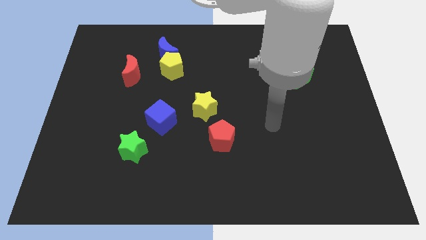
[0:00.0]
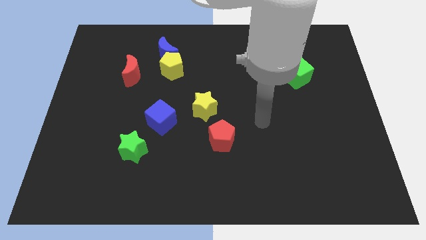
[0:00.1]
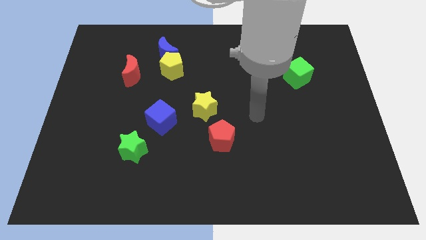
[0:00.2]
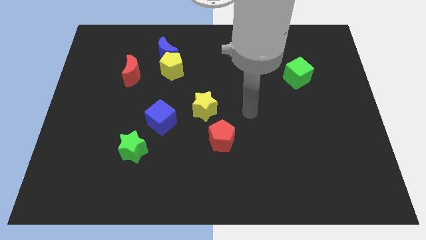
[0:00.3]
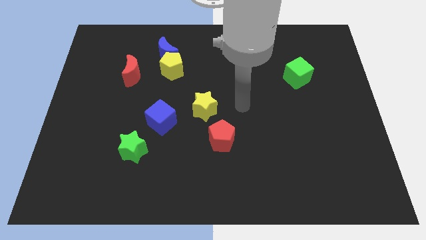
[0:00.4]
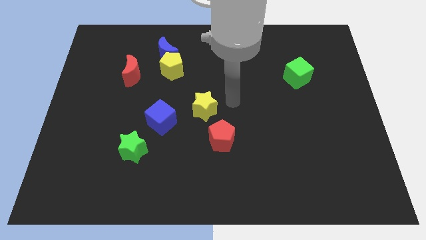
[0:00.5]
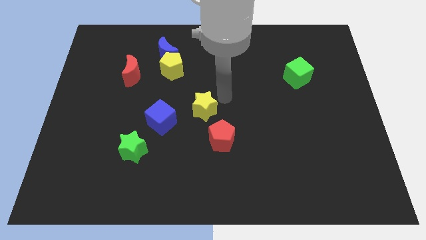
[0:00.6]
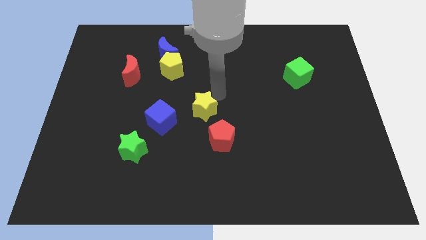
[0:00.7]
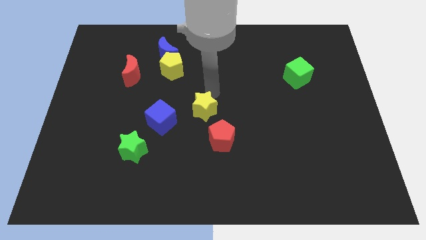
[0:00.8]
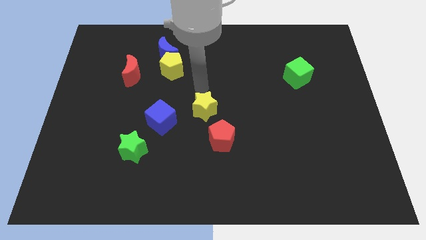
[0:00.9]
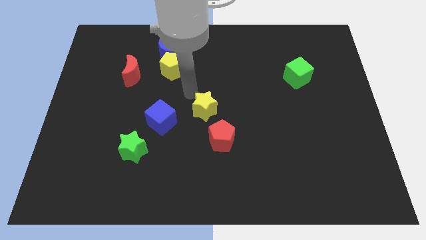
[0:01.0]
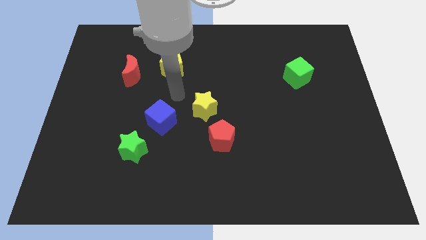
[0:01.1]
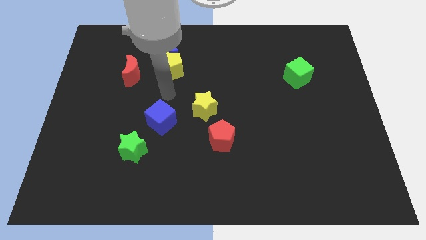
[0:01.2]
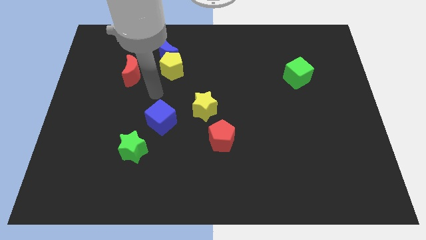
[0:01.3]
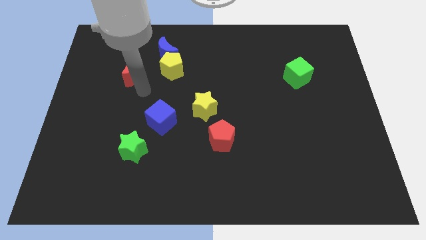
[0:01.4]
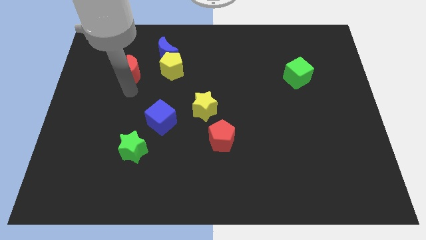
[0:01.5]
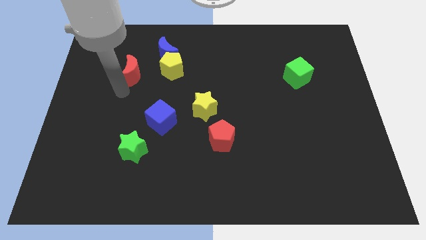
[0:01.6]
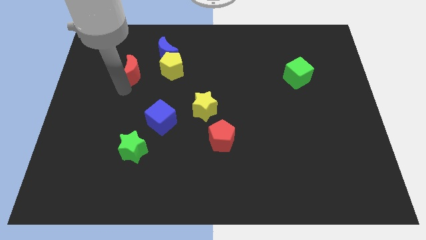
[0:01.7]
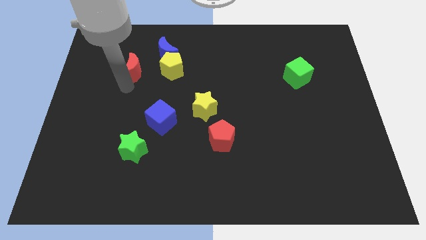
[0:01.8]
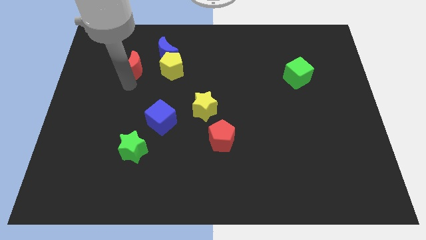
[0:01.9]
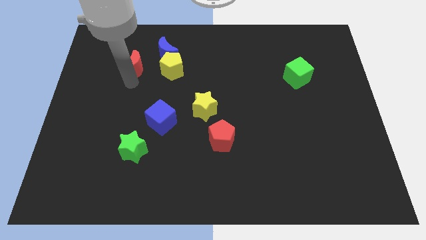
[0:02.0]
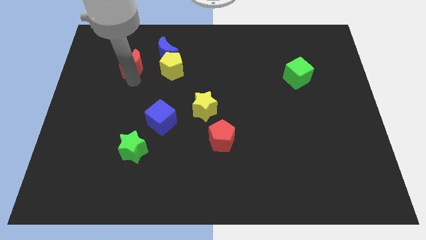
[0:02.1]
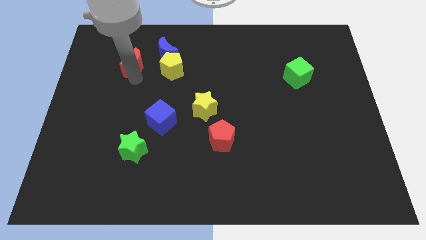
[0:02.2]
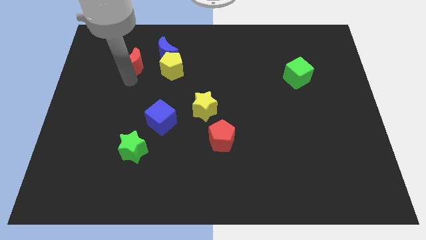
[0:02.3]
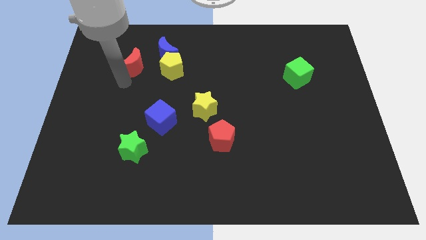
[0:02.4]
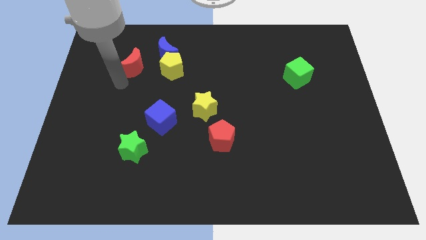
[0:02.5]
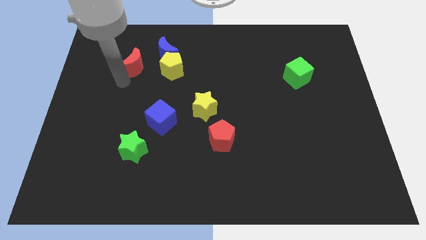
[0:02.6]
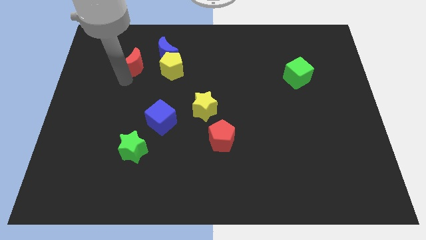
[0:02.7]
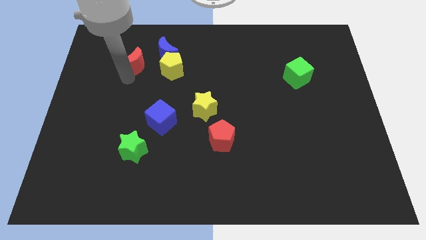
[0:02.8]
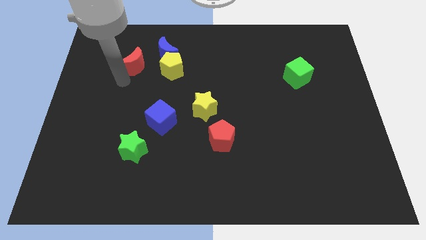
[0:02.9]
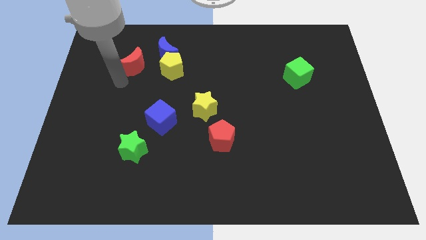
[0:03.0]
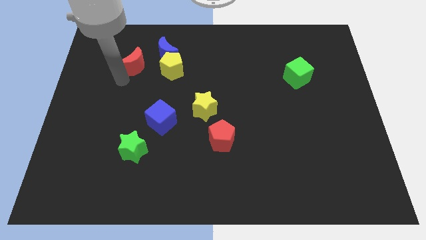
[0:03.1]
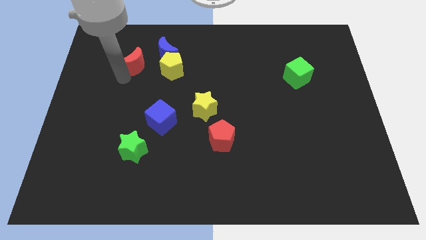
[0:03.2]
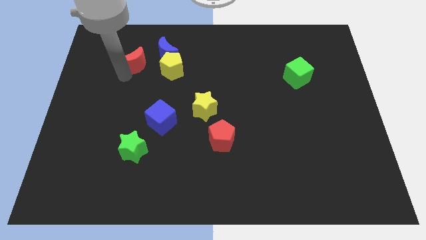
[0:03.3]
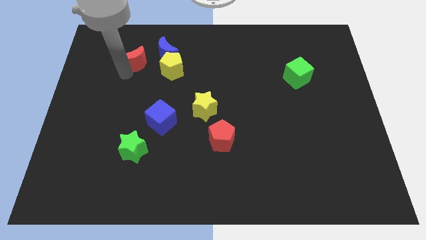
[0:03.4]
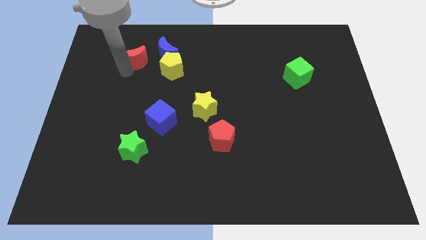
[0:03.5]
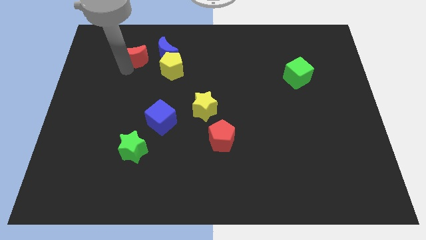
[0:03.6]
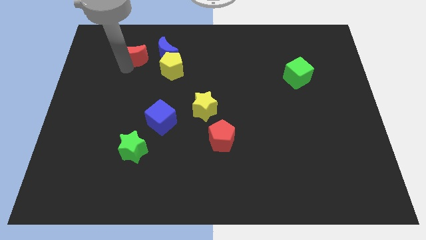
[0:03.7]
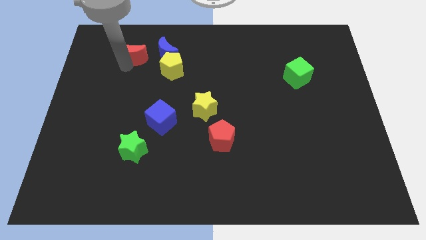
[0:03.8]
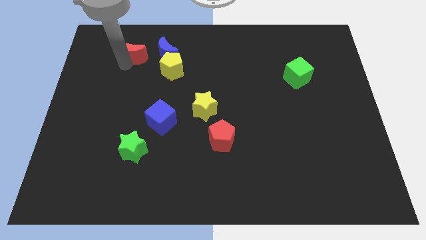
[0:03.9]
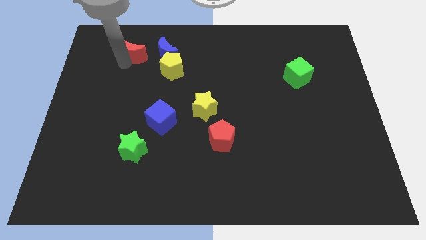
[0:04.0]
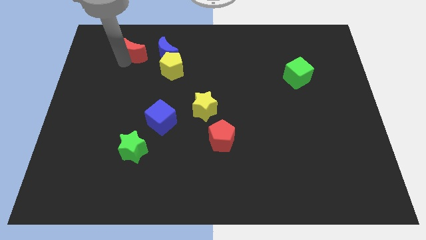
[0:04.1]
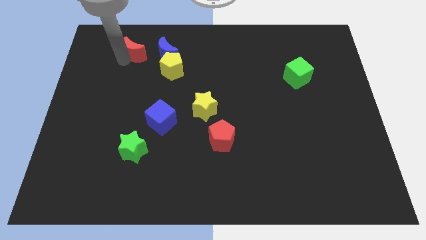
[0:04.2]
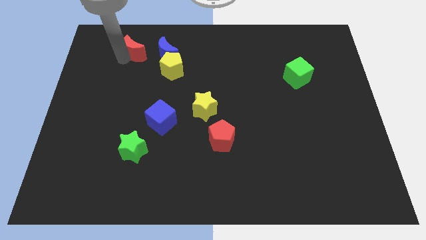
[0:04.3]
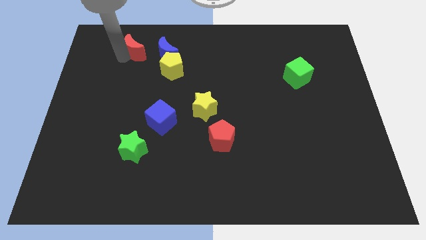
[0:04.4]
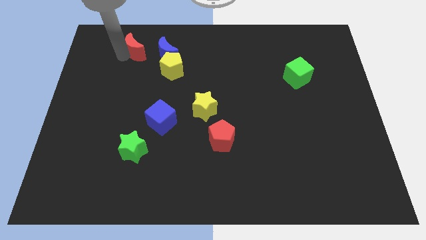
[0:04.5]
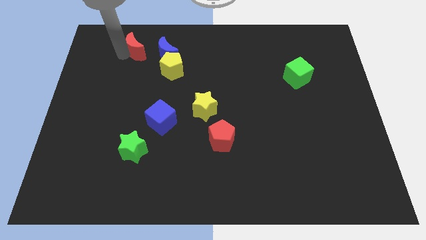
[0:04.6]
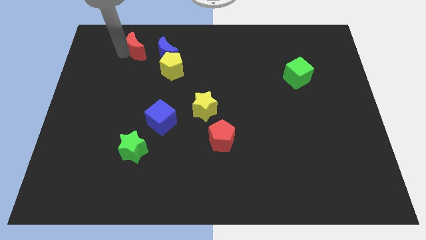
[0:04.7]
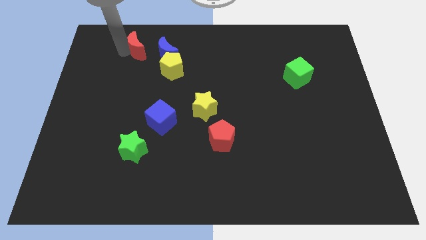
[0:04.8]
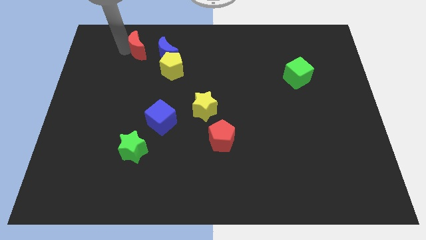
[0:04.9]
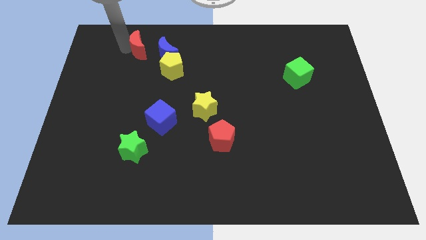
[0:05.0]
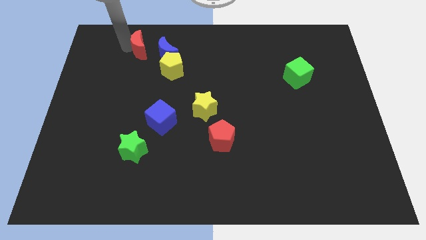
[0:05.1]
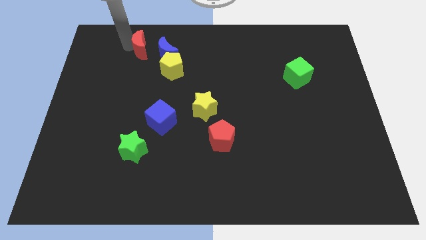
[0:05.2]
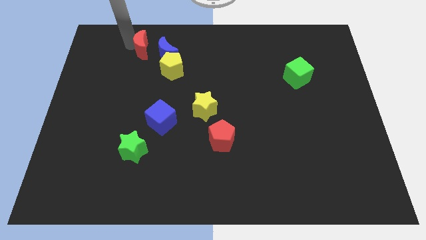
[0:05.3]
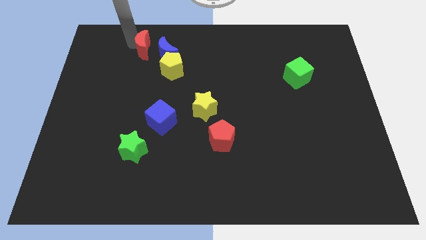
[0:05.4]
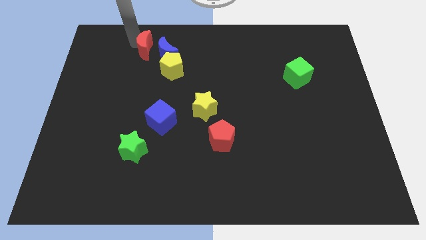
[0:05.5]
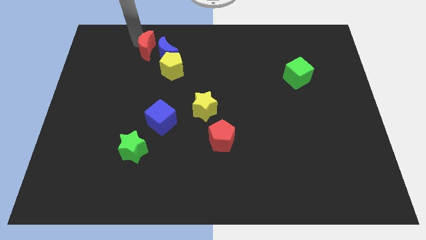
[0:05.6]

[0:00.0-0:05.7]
put the red moon next to the blue moon

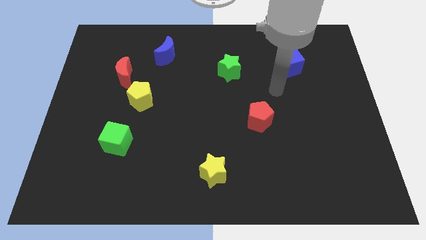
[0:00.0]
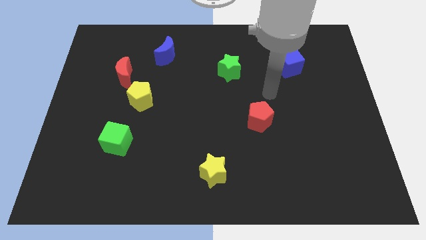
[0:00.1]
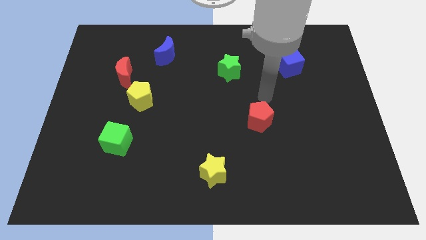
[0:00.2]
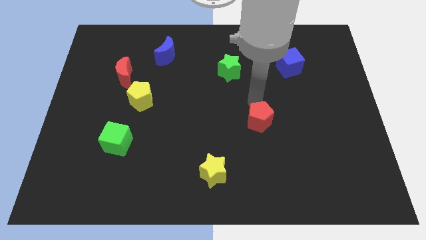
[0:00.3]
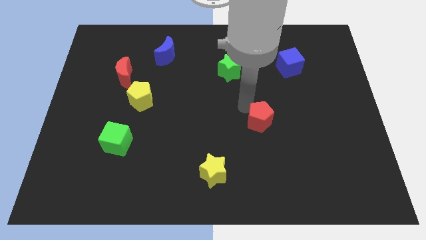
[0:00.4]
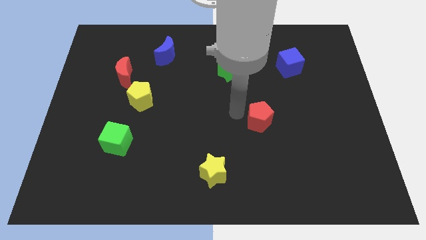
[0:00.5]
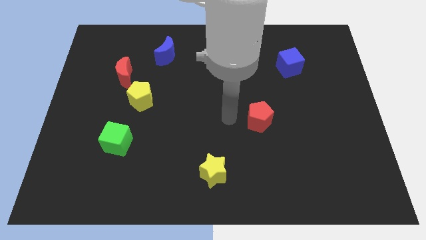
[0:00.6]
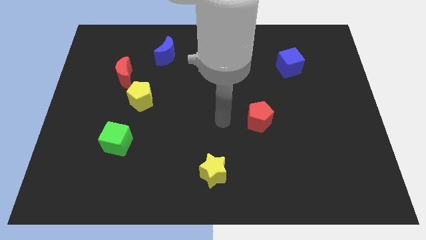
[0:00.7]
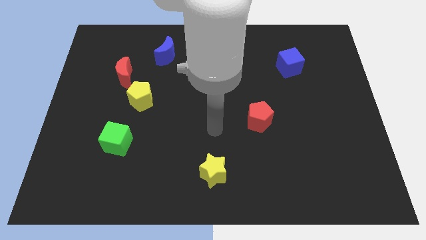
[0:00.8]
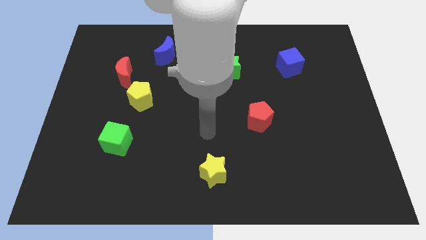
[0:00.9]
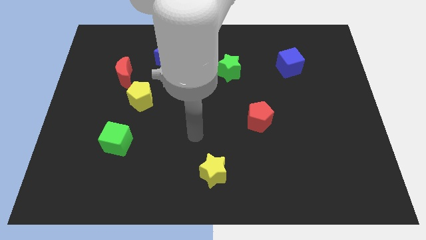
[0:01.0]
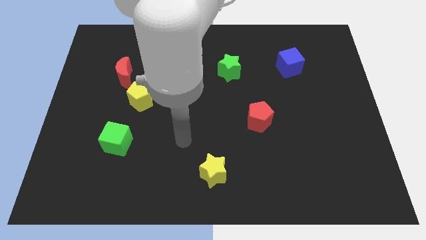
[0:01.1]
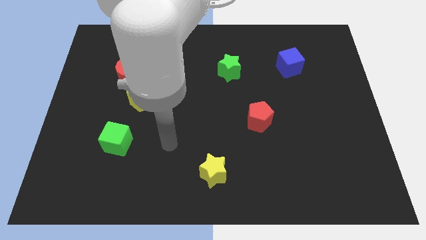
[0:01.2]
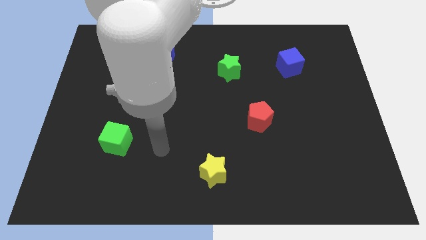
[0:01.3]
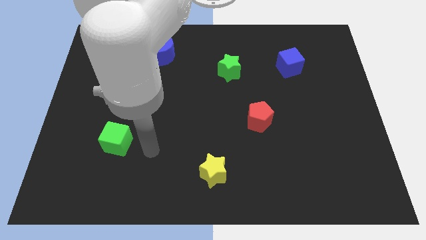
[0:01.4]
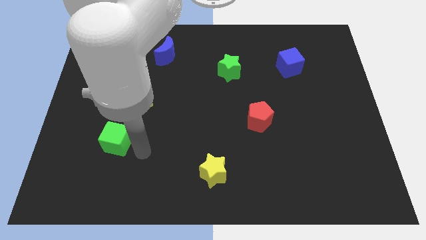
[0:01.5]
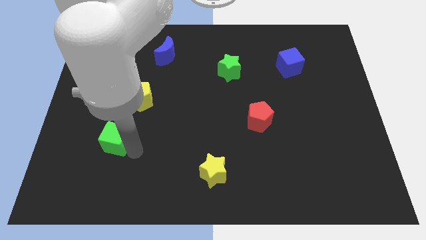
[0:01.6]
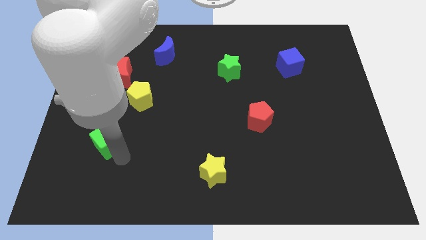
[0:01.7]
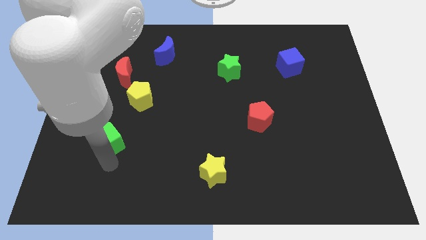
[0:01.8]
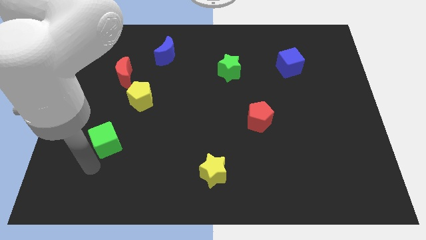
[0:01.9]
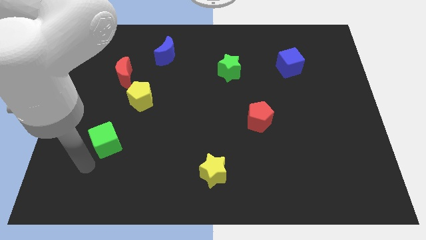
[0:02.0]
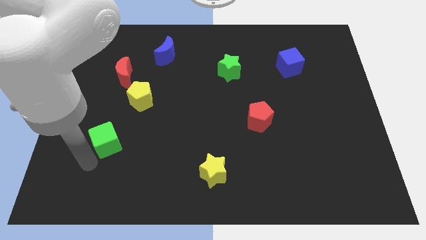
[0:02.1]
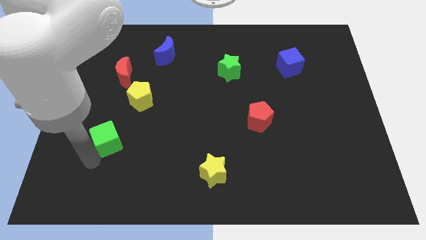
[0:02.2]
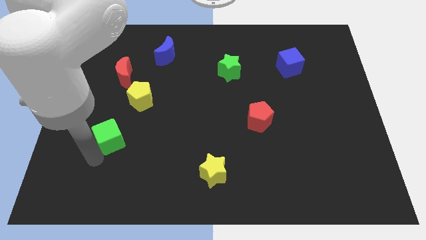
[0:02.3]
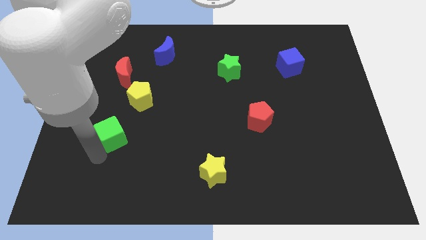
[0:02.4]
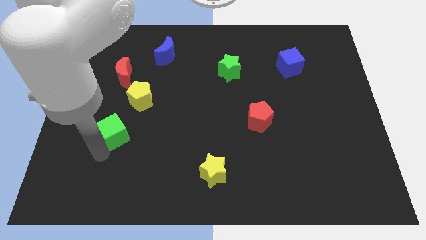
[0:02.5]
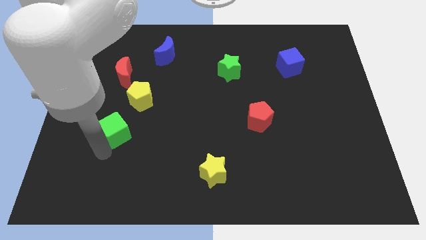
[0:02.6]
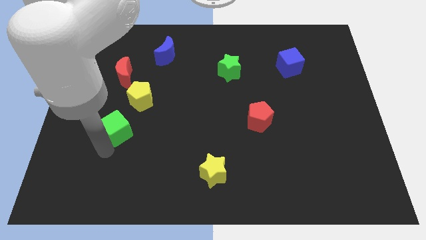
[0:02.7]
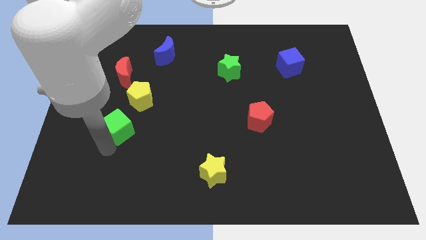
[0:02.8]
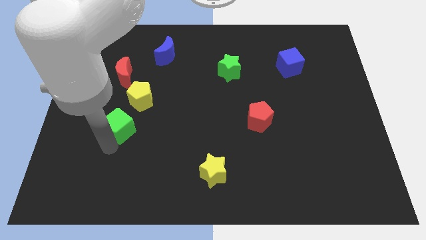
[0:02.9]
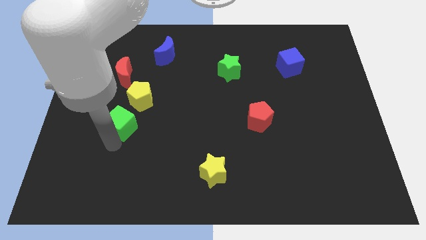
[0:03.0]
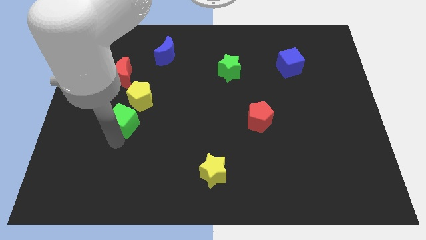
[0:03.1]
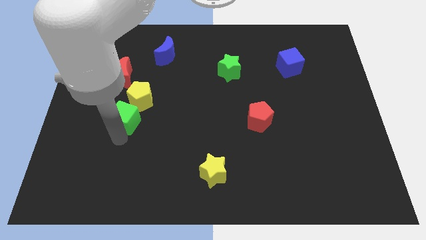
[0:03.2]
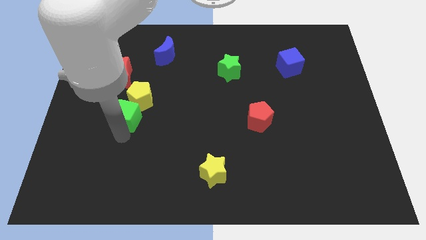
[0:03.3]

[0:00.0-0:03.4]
move the green cube next to the yellow pentagon
